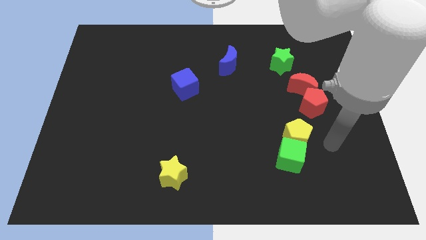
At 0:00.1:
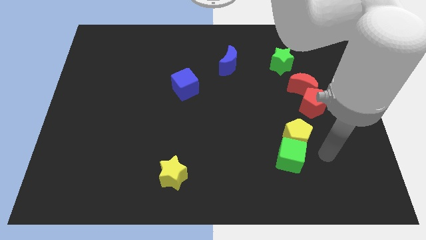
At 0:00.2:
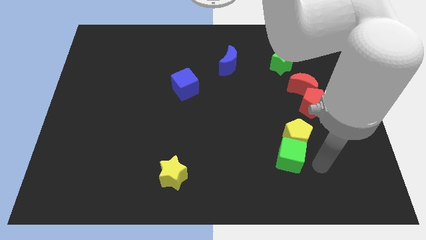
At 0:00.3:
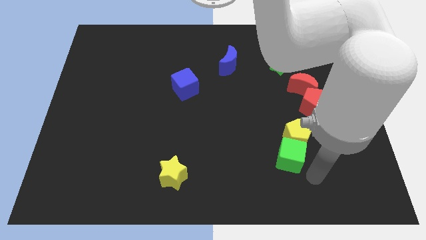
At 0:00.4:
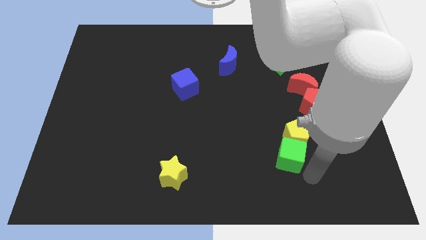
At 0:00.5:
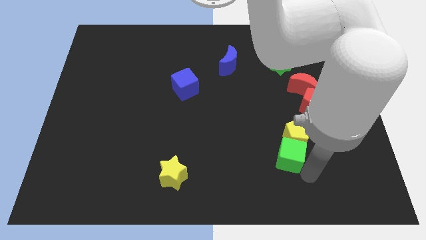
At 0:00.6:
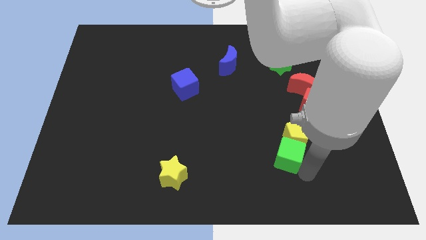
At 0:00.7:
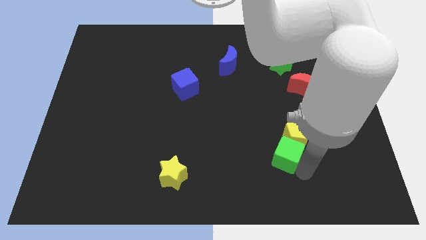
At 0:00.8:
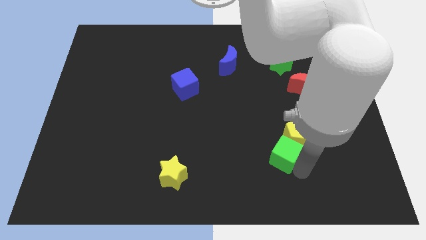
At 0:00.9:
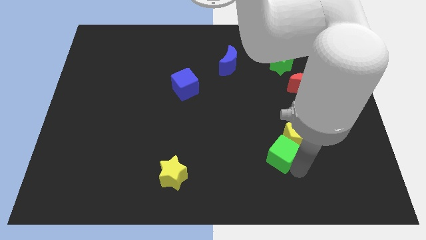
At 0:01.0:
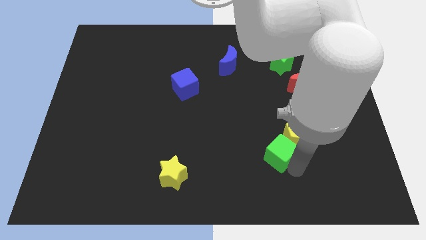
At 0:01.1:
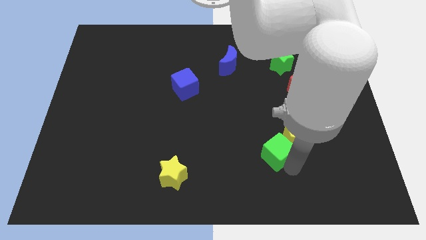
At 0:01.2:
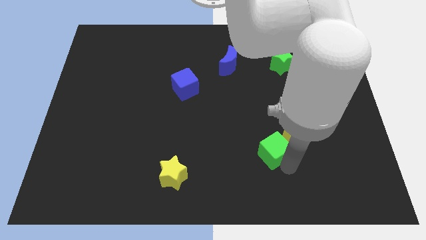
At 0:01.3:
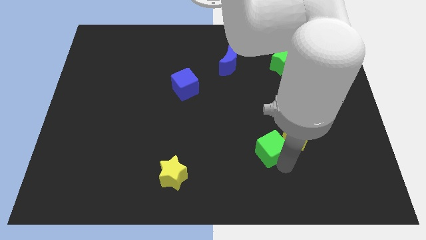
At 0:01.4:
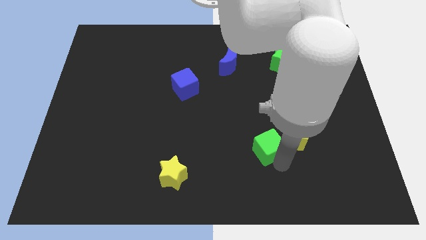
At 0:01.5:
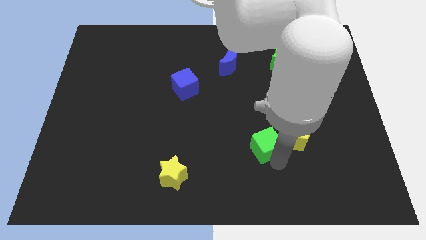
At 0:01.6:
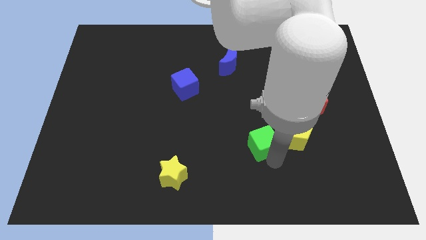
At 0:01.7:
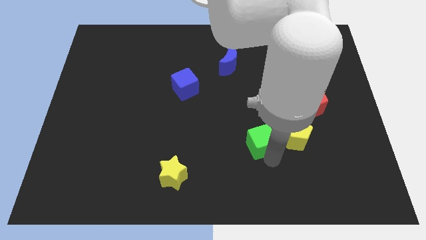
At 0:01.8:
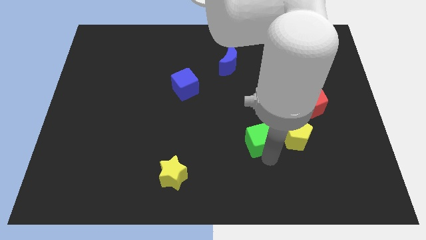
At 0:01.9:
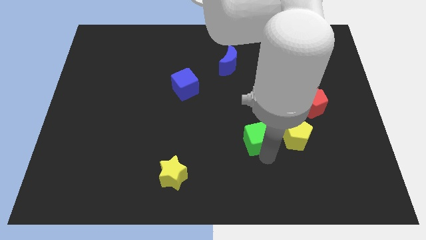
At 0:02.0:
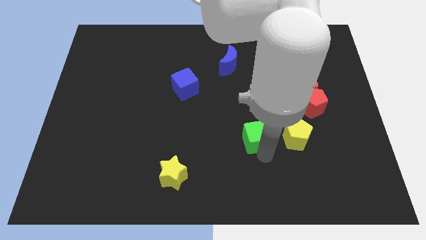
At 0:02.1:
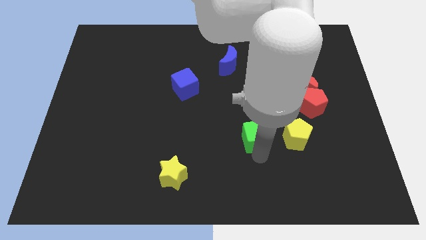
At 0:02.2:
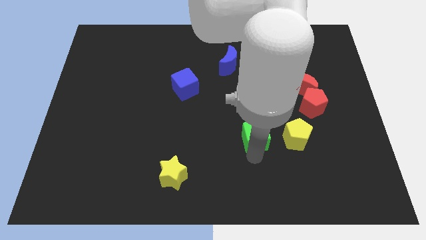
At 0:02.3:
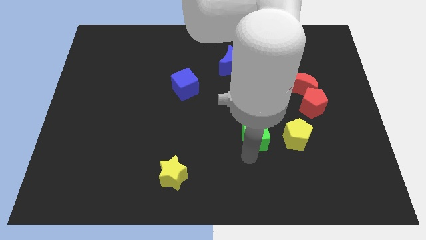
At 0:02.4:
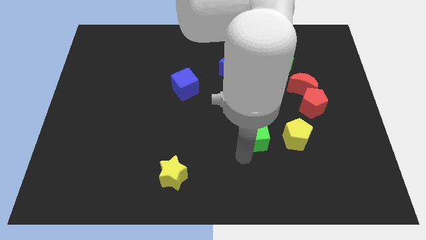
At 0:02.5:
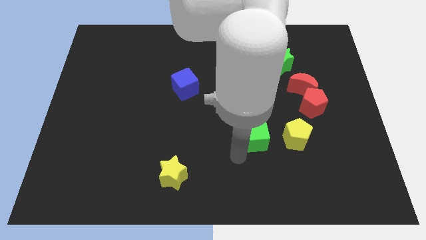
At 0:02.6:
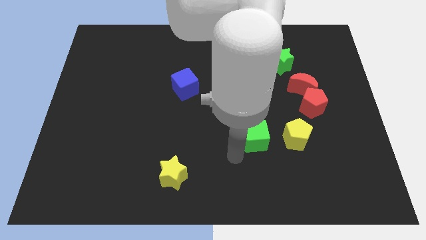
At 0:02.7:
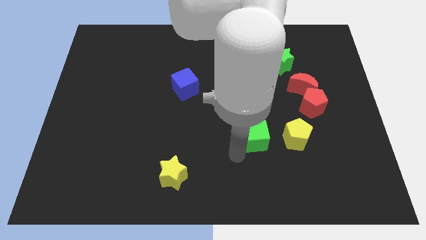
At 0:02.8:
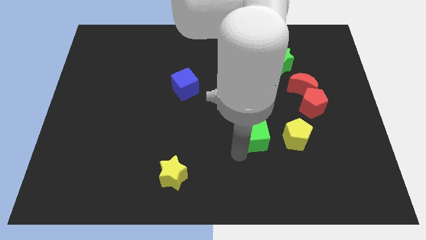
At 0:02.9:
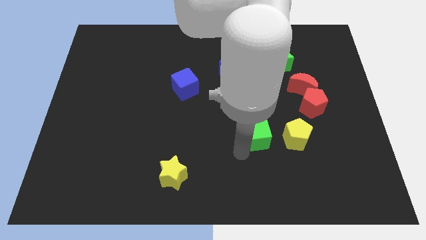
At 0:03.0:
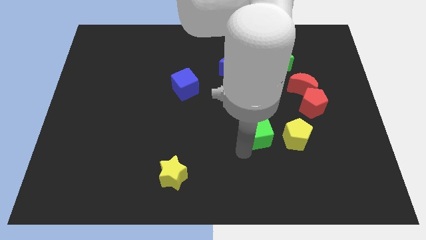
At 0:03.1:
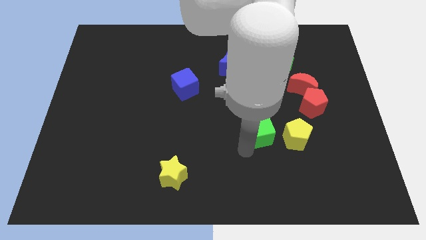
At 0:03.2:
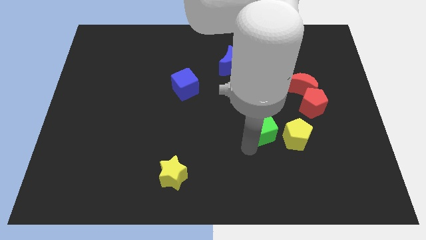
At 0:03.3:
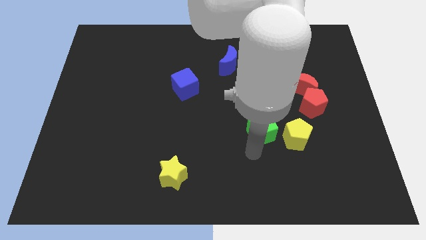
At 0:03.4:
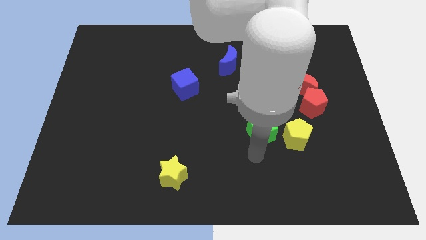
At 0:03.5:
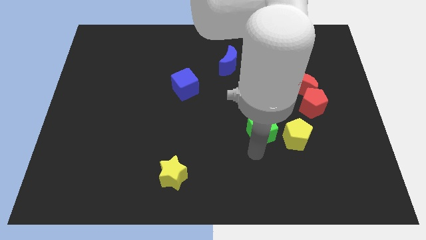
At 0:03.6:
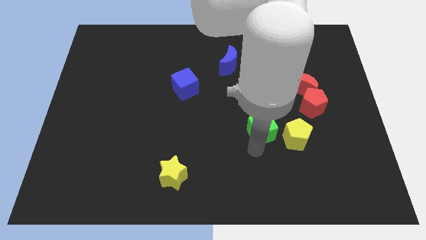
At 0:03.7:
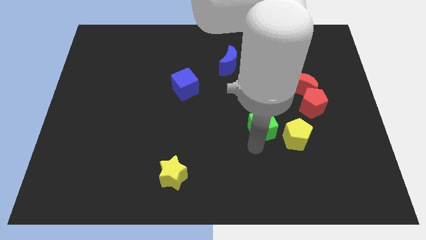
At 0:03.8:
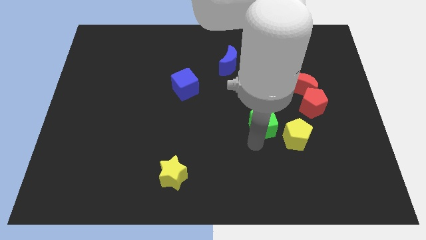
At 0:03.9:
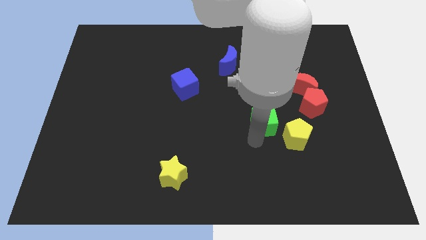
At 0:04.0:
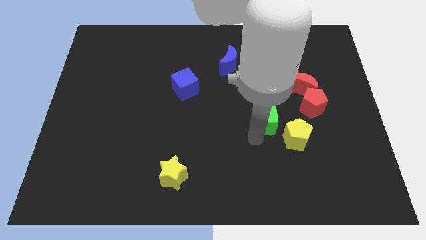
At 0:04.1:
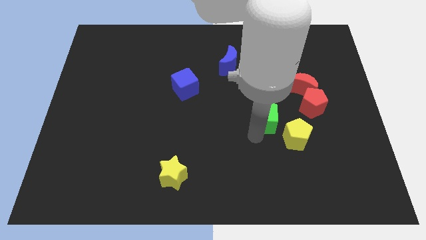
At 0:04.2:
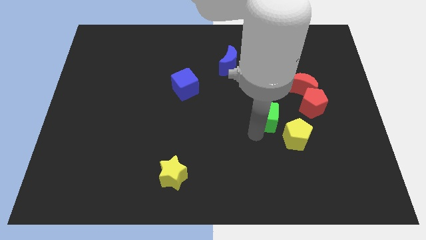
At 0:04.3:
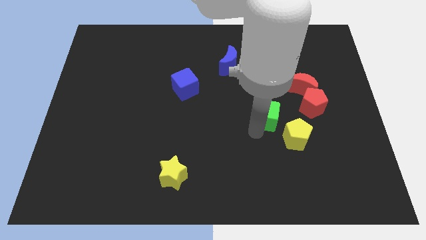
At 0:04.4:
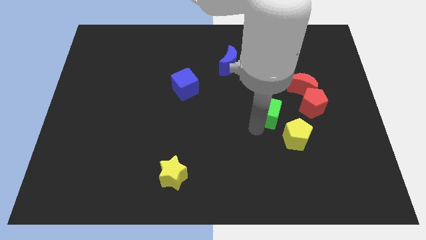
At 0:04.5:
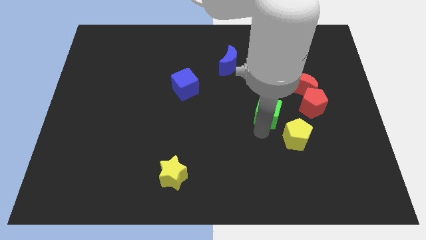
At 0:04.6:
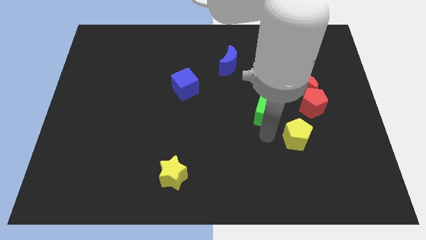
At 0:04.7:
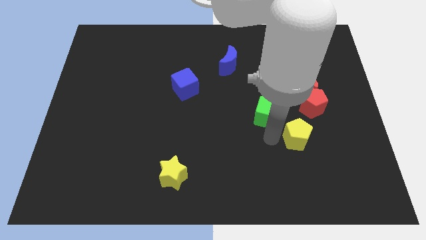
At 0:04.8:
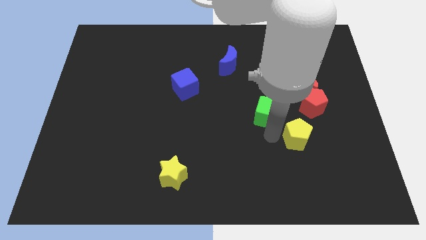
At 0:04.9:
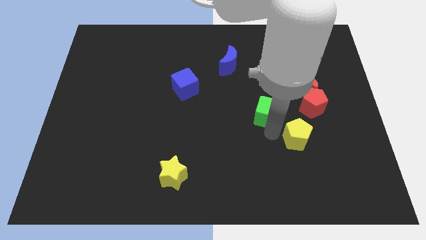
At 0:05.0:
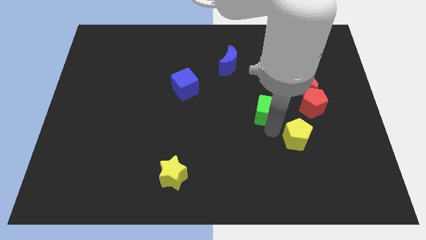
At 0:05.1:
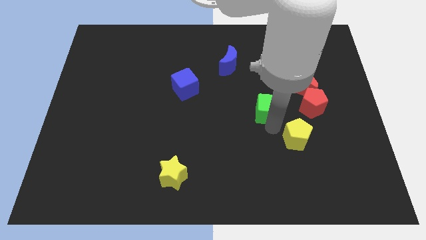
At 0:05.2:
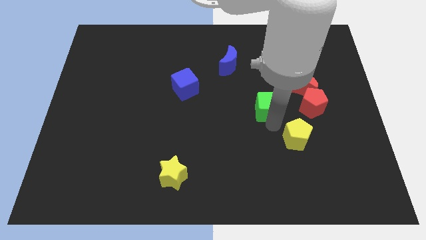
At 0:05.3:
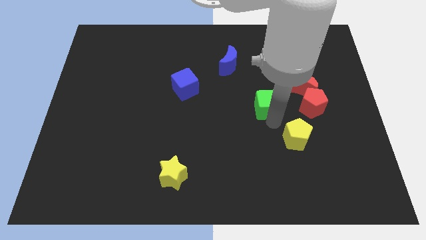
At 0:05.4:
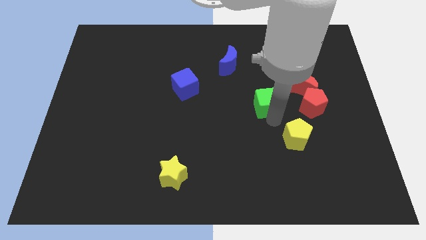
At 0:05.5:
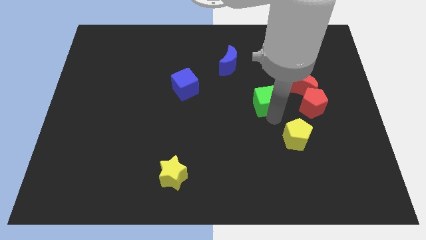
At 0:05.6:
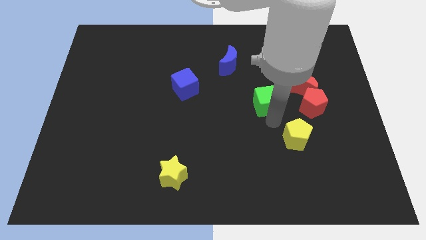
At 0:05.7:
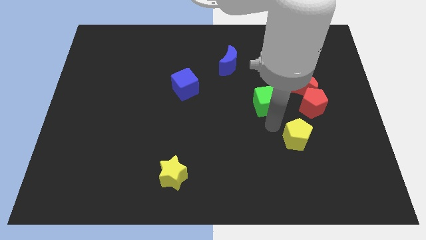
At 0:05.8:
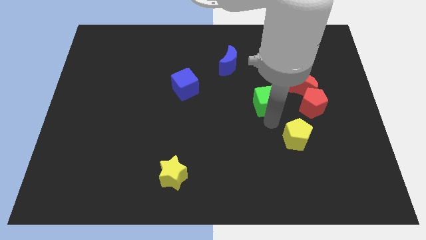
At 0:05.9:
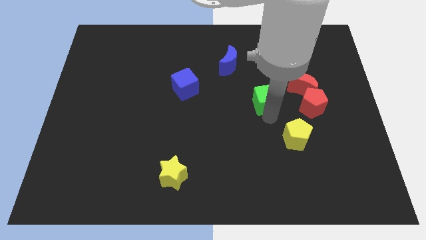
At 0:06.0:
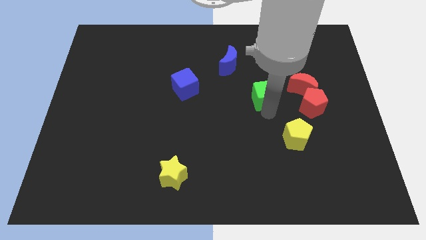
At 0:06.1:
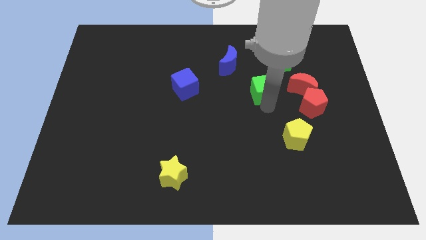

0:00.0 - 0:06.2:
slide the green cube to the bottom right side of the blue moon

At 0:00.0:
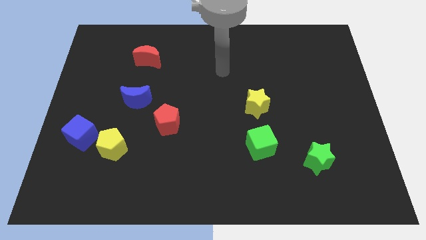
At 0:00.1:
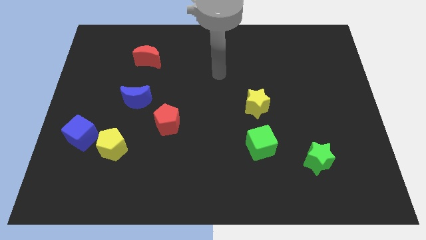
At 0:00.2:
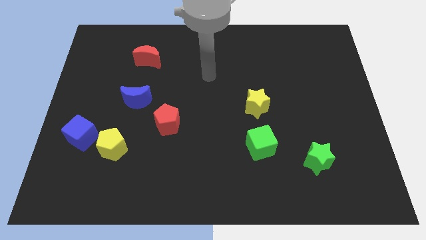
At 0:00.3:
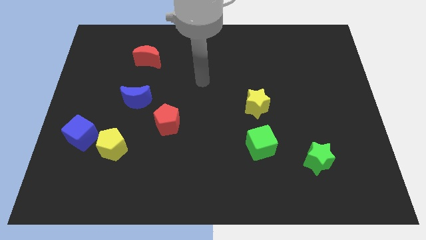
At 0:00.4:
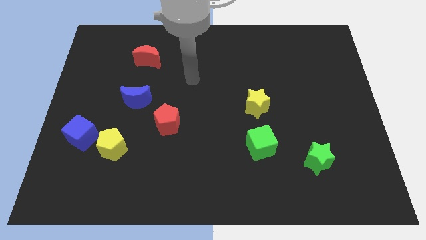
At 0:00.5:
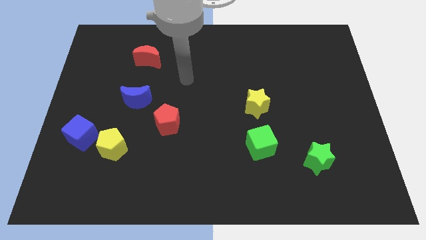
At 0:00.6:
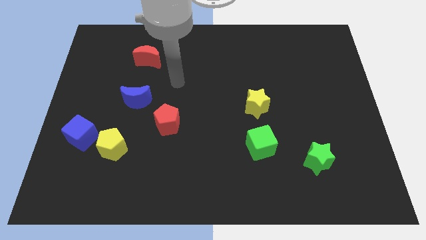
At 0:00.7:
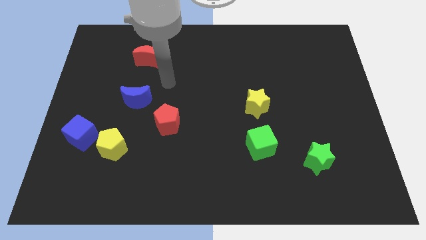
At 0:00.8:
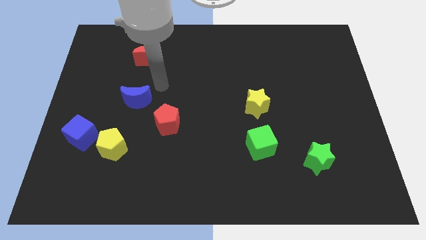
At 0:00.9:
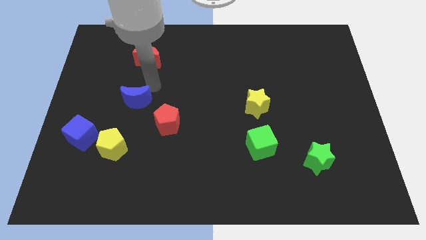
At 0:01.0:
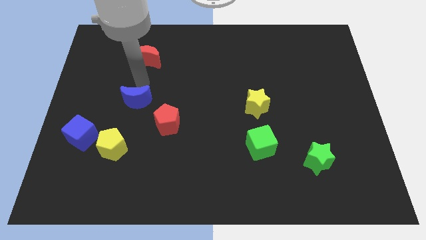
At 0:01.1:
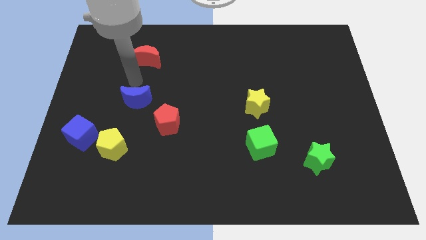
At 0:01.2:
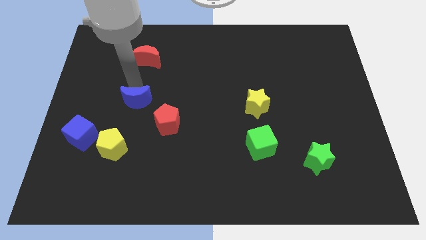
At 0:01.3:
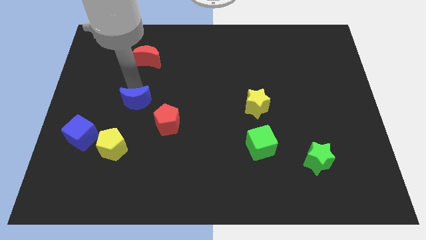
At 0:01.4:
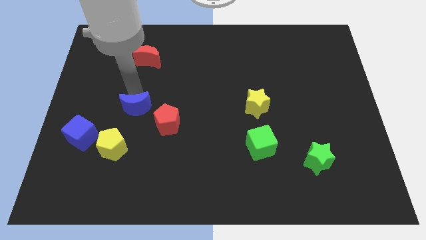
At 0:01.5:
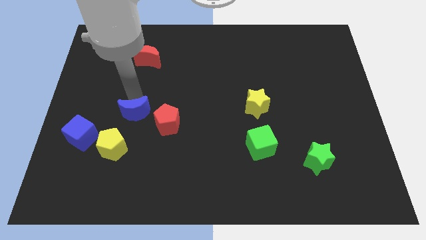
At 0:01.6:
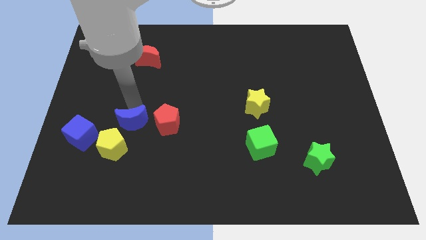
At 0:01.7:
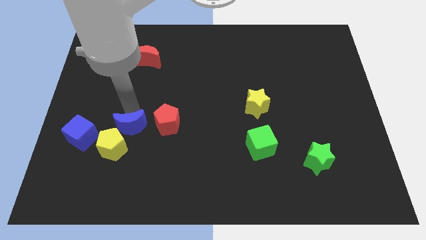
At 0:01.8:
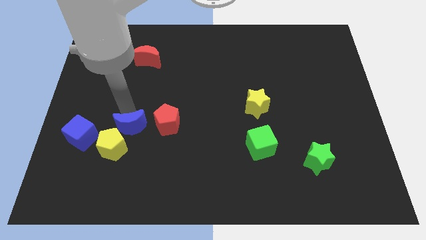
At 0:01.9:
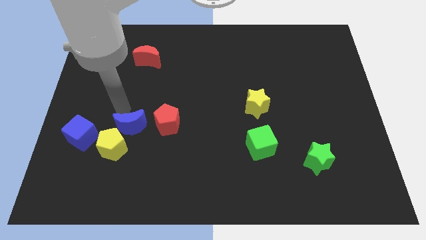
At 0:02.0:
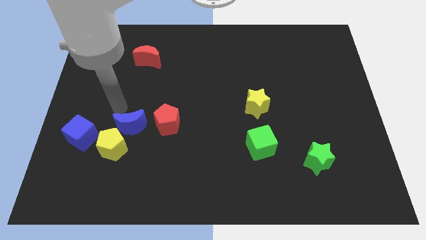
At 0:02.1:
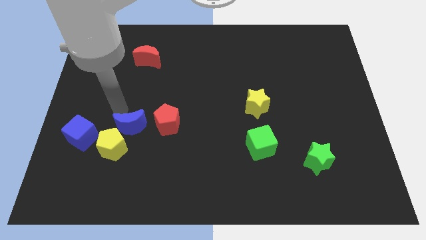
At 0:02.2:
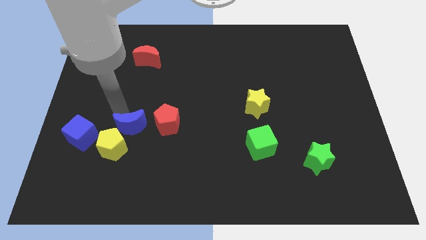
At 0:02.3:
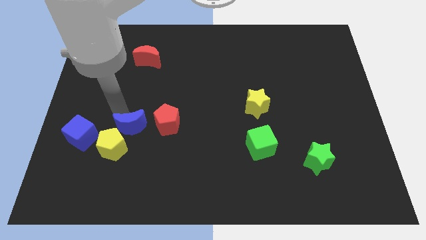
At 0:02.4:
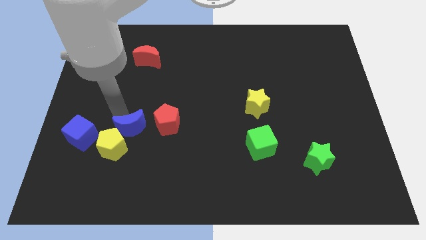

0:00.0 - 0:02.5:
move the blue moon to the bottom left side of the red pentagon
